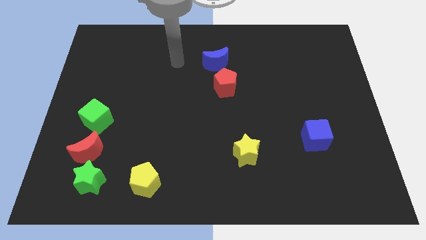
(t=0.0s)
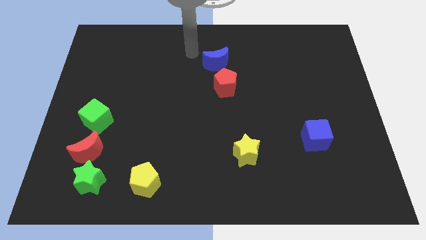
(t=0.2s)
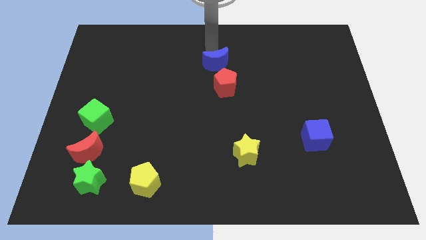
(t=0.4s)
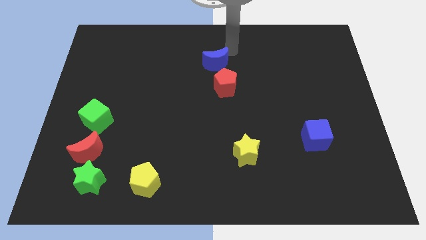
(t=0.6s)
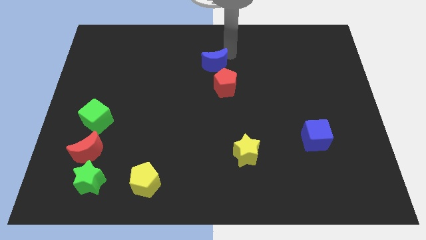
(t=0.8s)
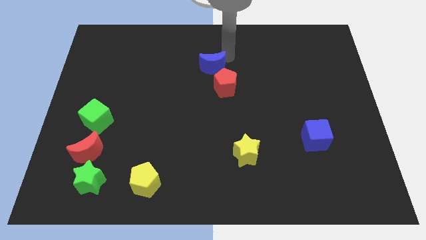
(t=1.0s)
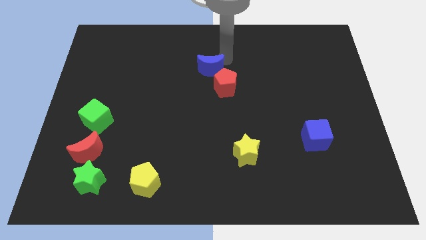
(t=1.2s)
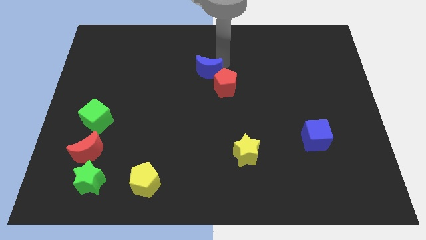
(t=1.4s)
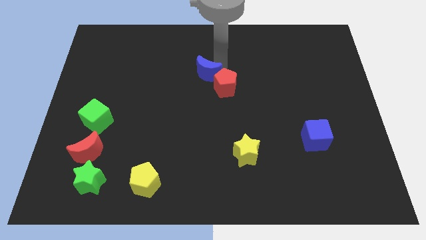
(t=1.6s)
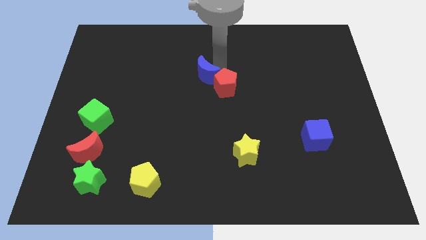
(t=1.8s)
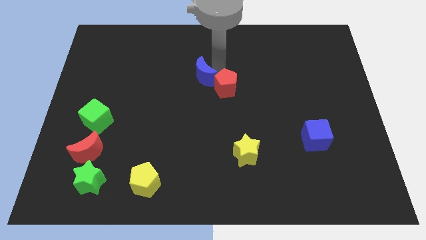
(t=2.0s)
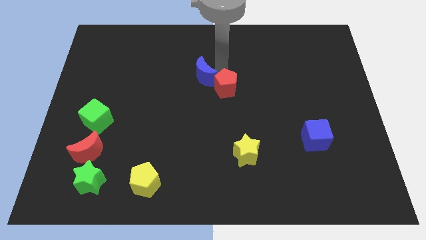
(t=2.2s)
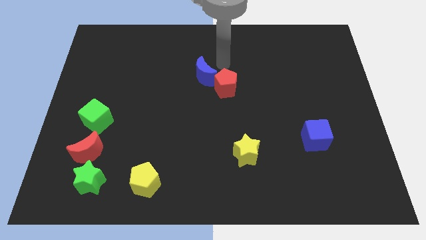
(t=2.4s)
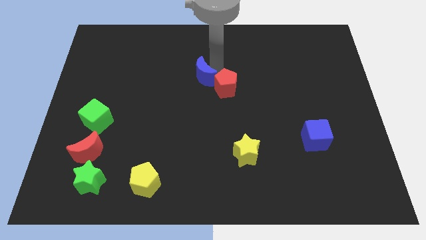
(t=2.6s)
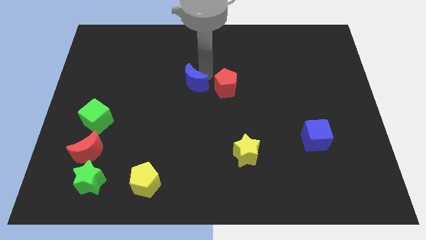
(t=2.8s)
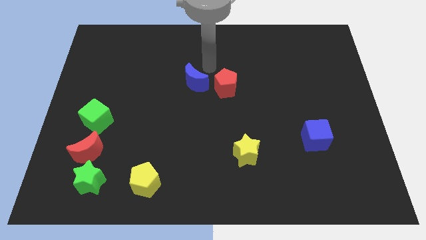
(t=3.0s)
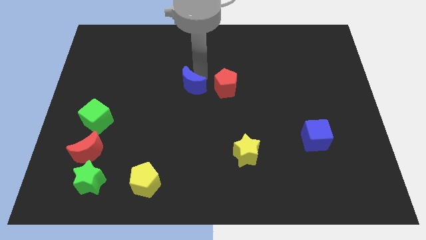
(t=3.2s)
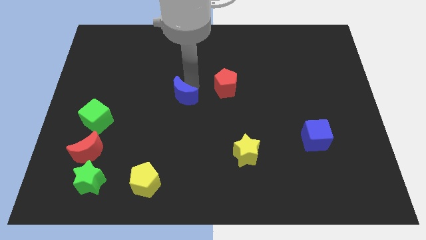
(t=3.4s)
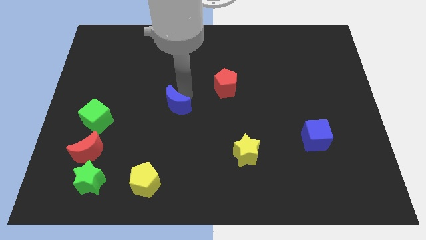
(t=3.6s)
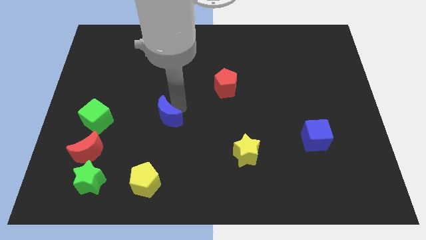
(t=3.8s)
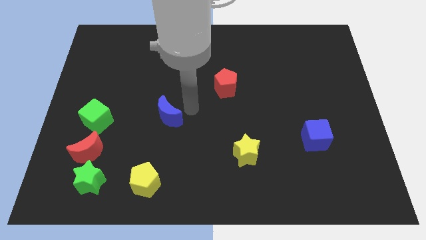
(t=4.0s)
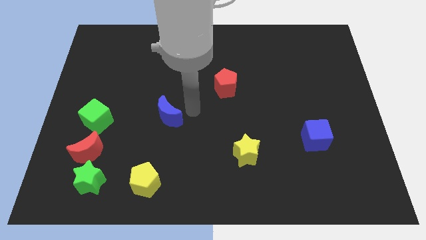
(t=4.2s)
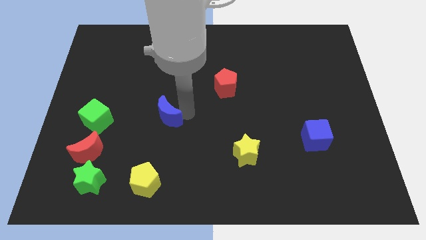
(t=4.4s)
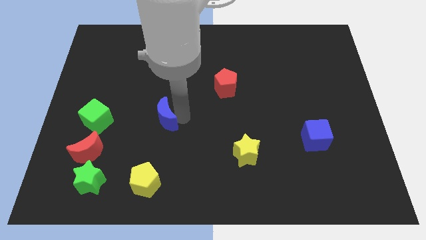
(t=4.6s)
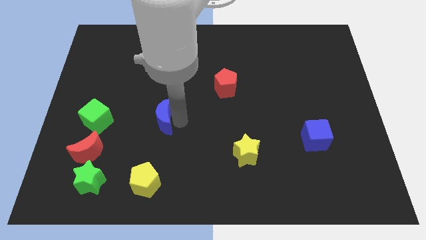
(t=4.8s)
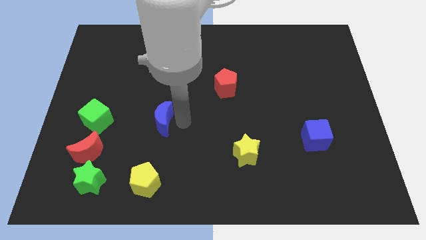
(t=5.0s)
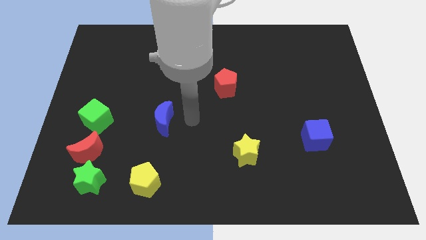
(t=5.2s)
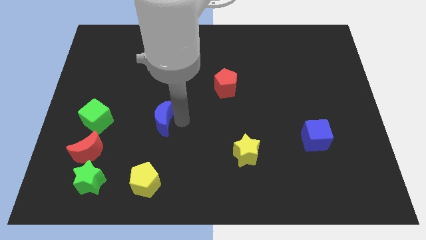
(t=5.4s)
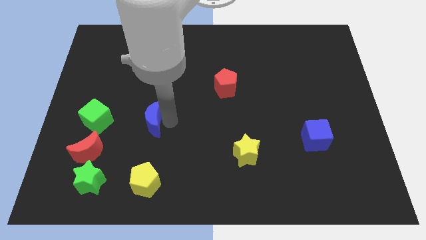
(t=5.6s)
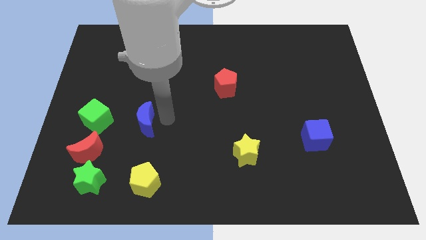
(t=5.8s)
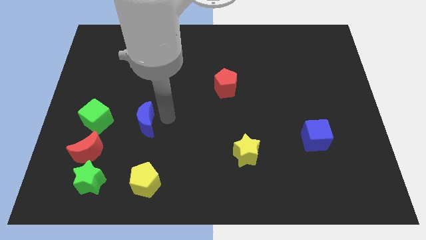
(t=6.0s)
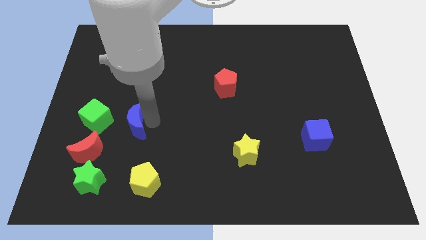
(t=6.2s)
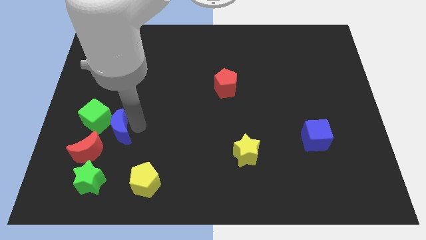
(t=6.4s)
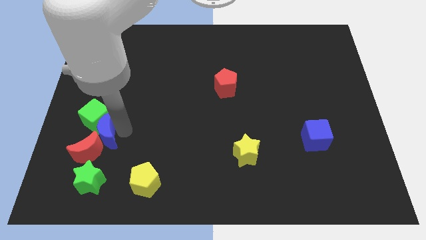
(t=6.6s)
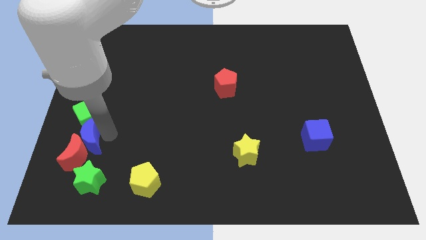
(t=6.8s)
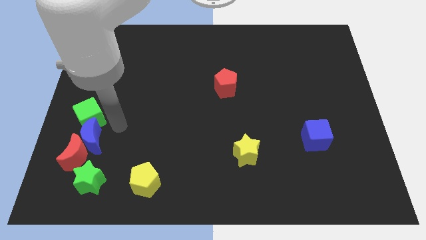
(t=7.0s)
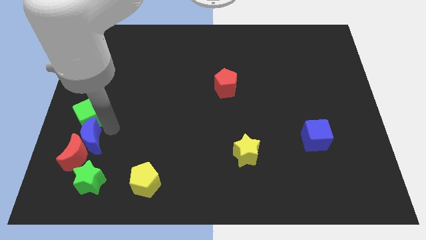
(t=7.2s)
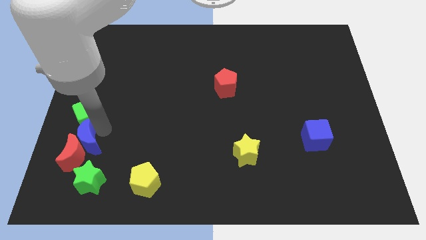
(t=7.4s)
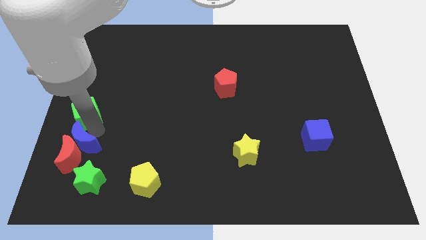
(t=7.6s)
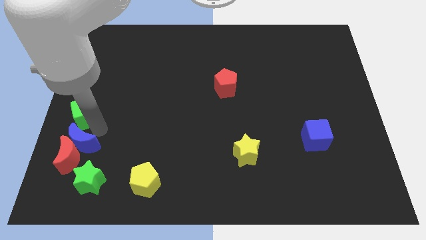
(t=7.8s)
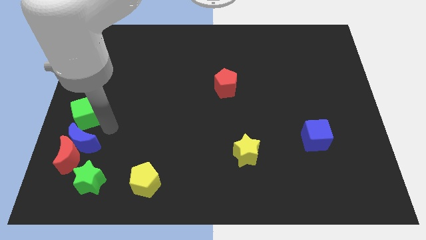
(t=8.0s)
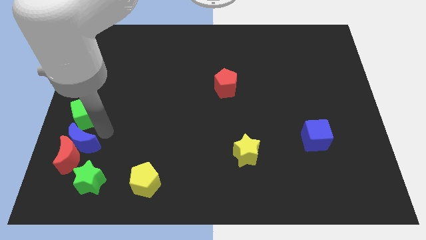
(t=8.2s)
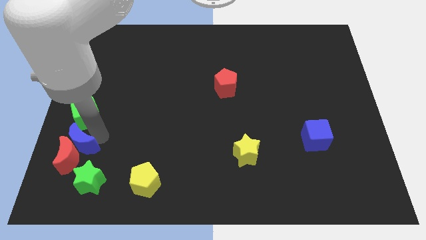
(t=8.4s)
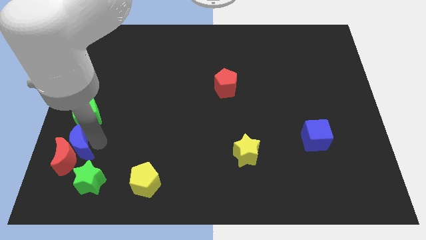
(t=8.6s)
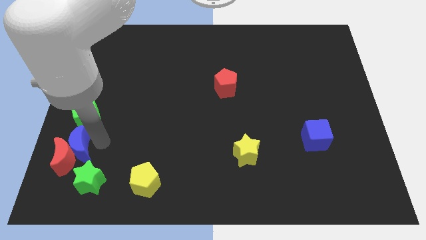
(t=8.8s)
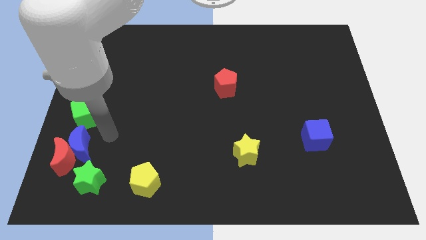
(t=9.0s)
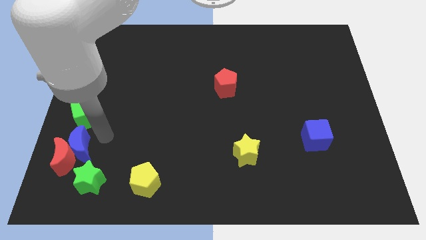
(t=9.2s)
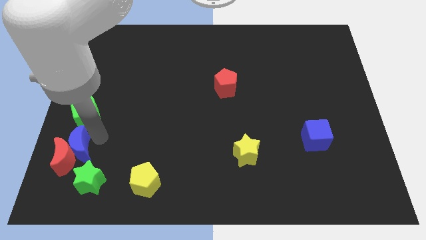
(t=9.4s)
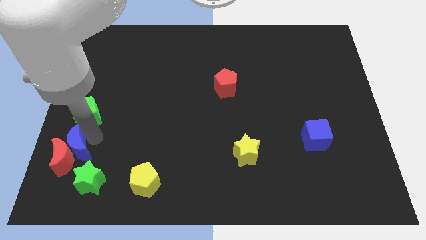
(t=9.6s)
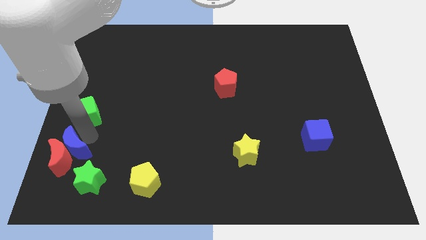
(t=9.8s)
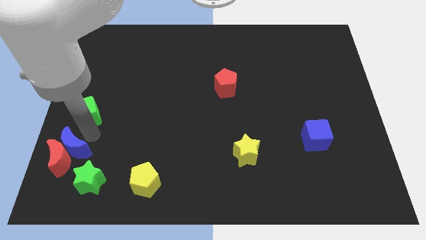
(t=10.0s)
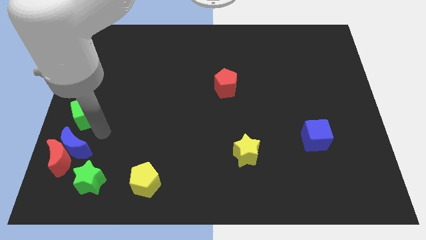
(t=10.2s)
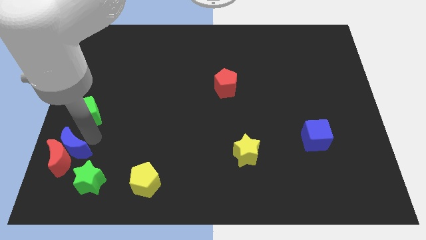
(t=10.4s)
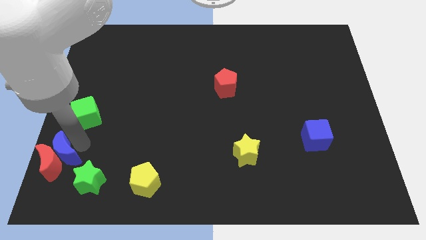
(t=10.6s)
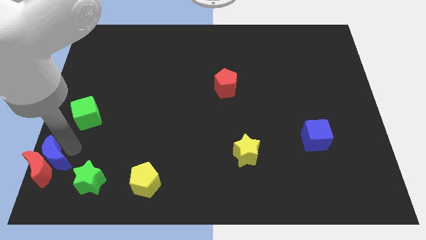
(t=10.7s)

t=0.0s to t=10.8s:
push the blue moon to the bottom left

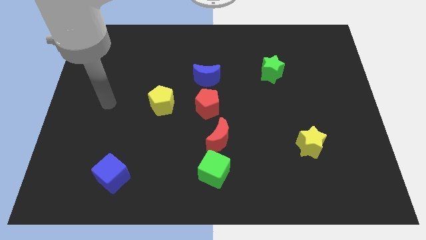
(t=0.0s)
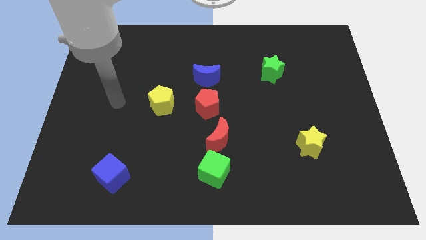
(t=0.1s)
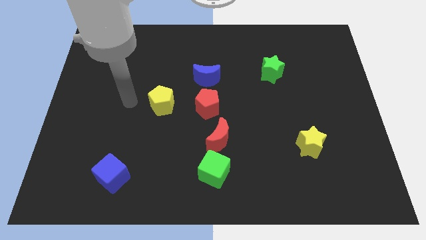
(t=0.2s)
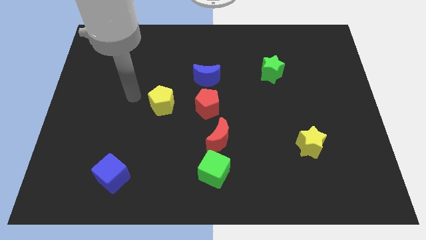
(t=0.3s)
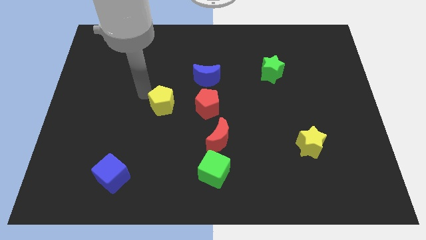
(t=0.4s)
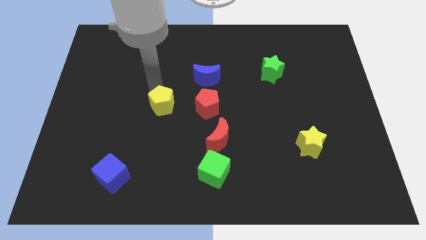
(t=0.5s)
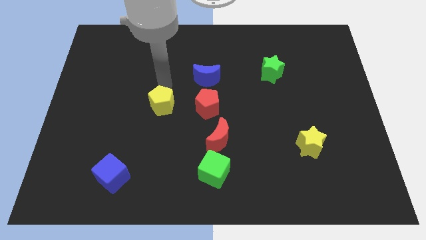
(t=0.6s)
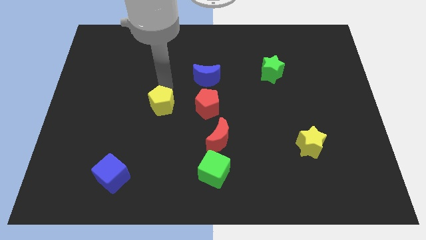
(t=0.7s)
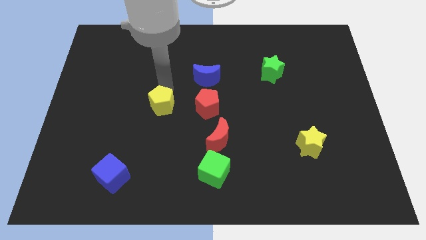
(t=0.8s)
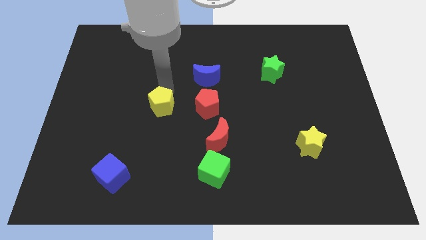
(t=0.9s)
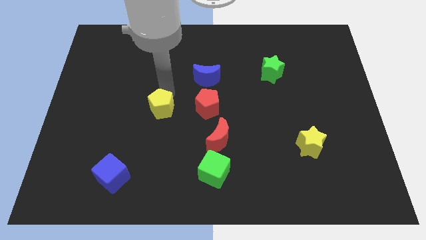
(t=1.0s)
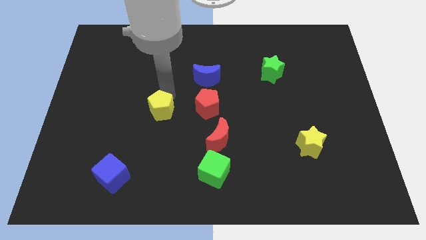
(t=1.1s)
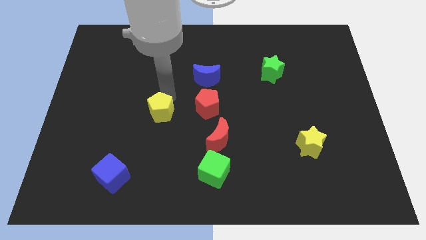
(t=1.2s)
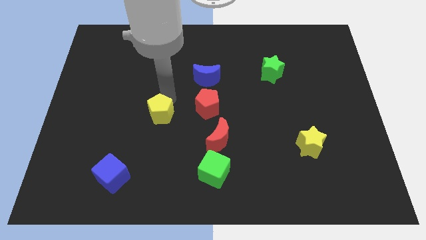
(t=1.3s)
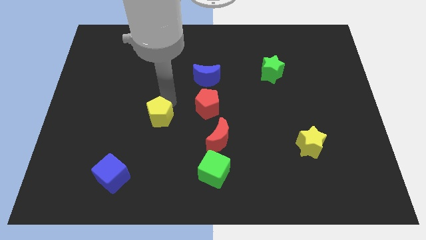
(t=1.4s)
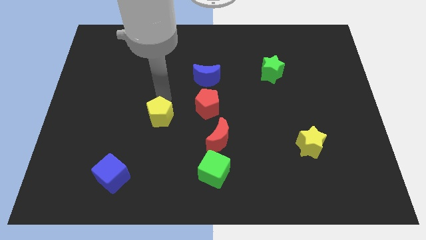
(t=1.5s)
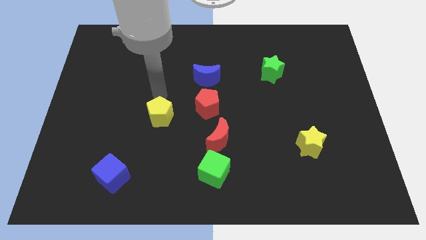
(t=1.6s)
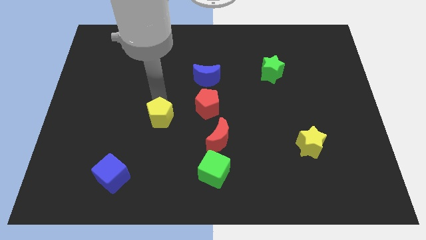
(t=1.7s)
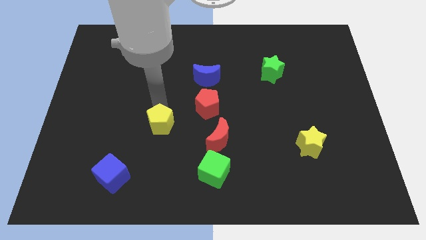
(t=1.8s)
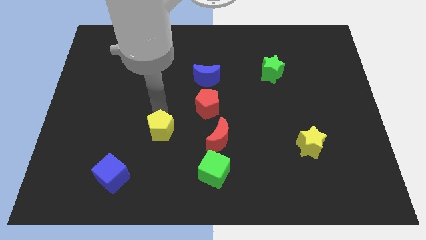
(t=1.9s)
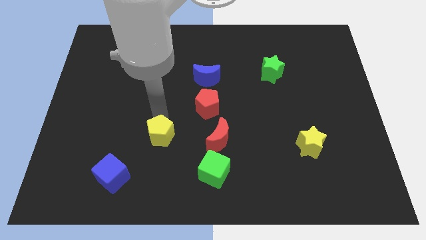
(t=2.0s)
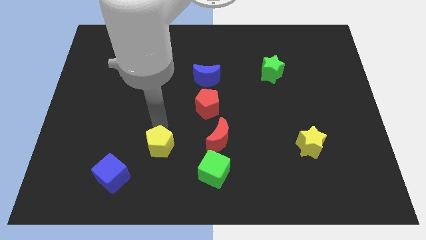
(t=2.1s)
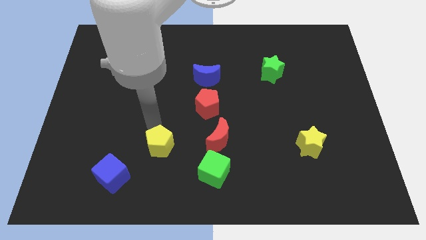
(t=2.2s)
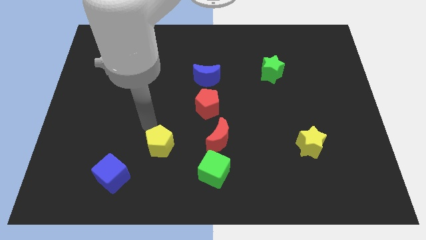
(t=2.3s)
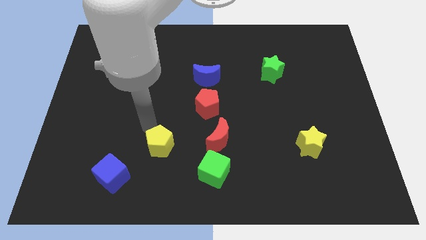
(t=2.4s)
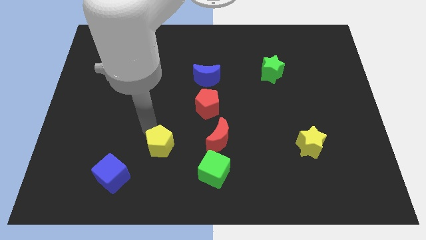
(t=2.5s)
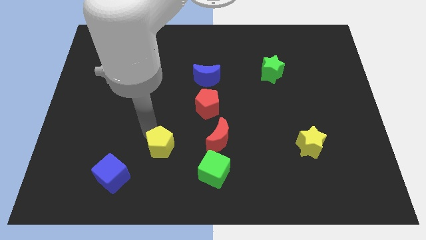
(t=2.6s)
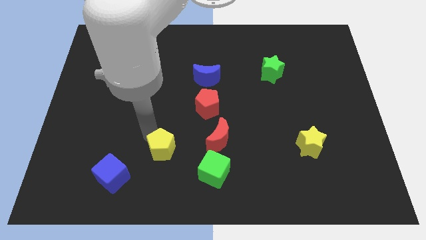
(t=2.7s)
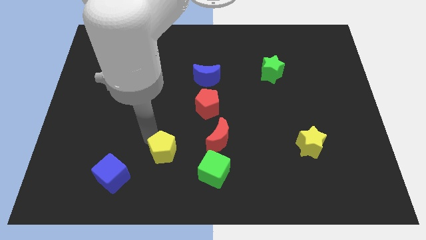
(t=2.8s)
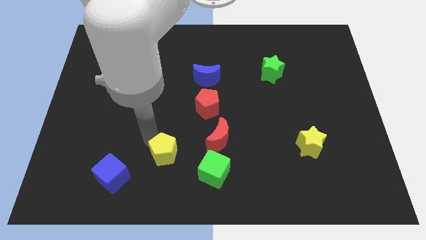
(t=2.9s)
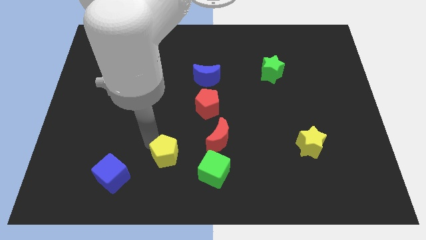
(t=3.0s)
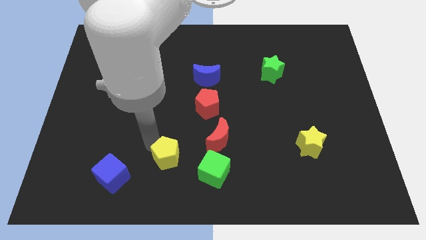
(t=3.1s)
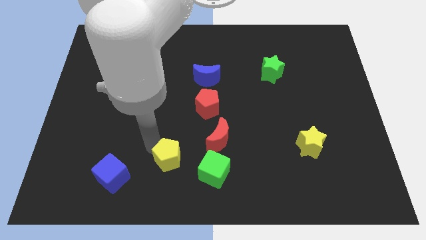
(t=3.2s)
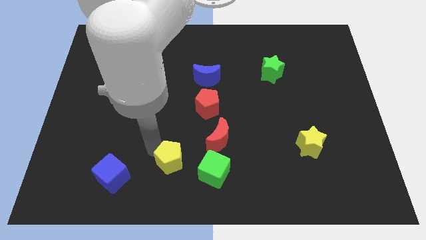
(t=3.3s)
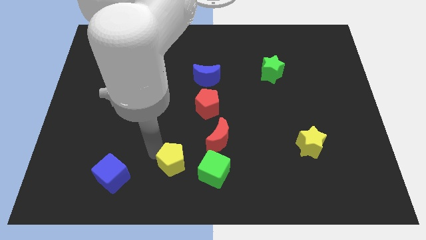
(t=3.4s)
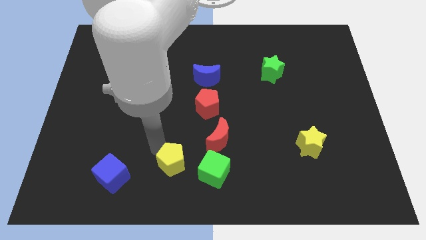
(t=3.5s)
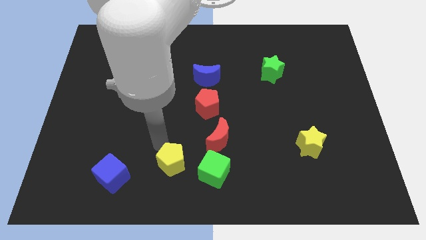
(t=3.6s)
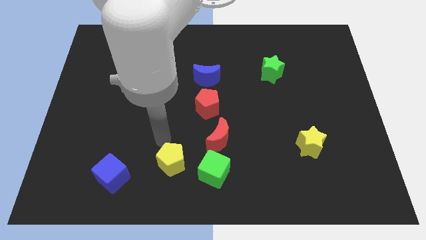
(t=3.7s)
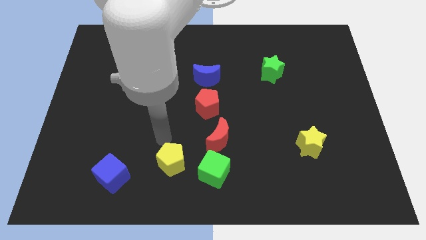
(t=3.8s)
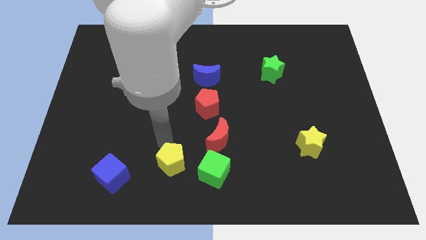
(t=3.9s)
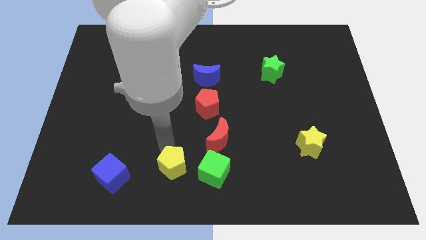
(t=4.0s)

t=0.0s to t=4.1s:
push the yellow pentagon to the bottom
